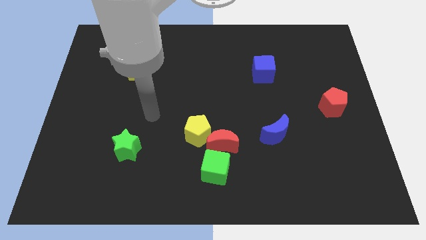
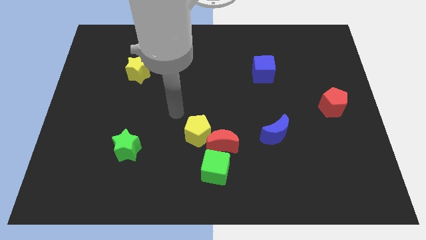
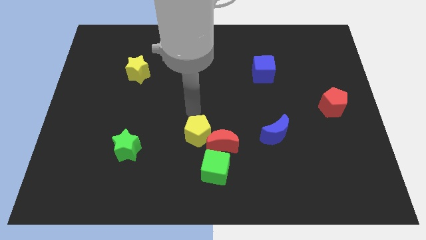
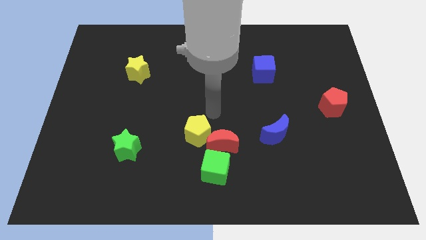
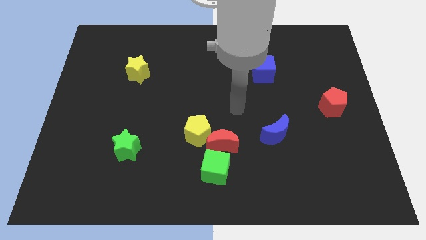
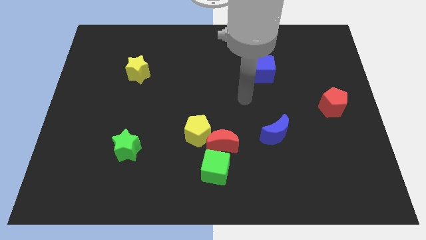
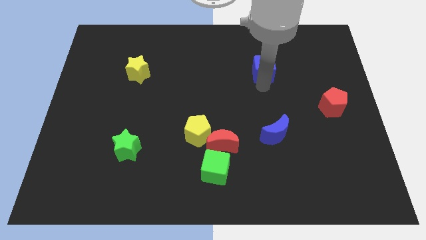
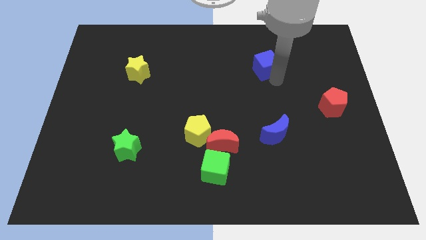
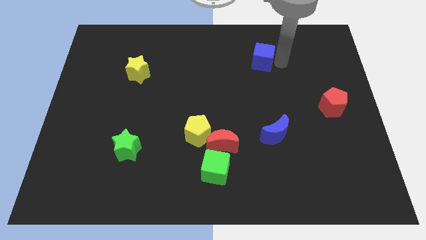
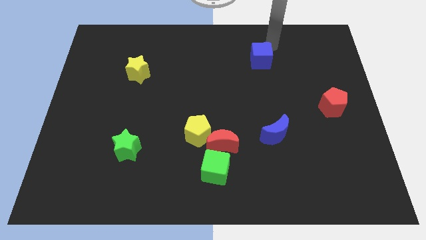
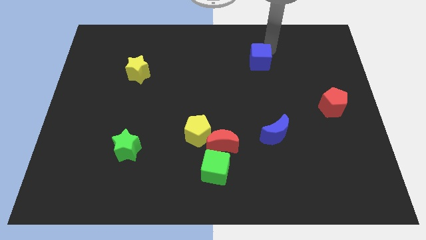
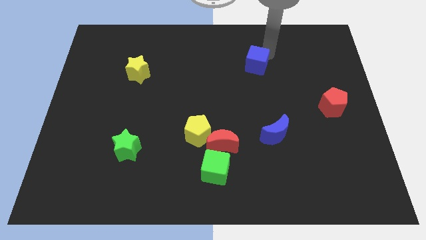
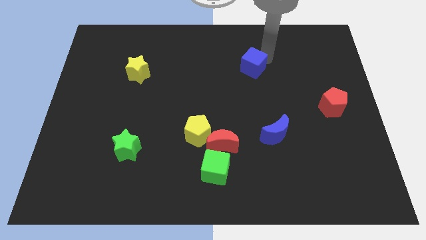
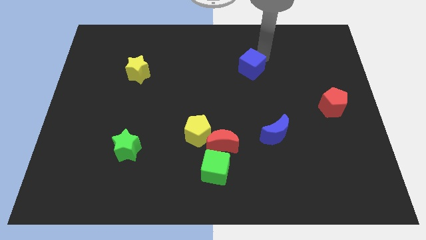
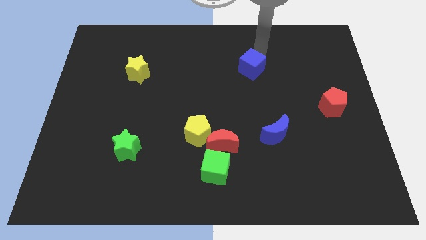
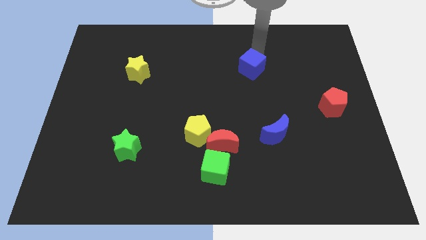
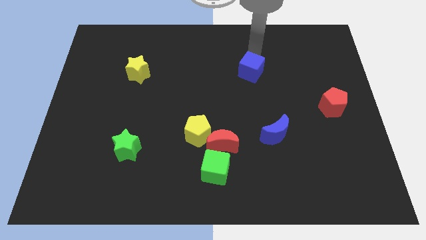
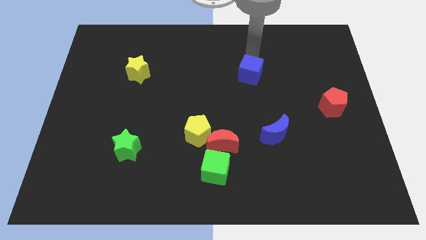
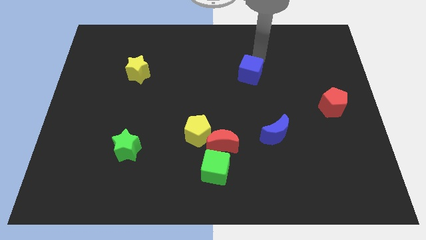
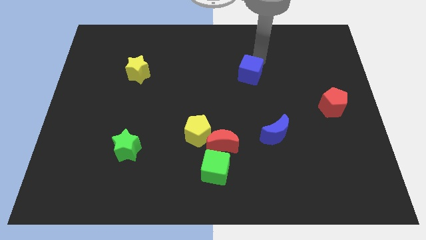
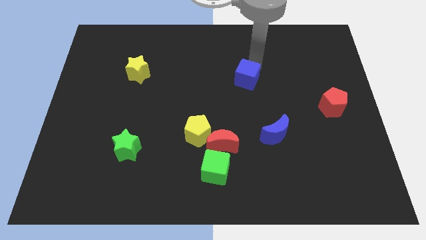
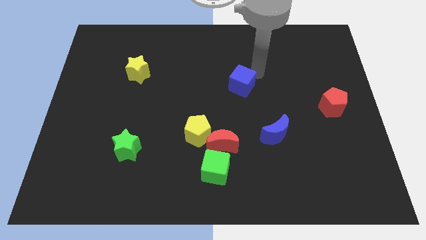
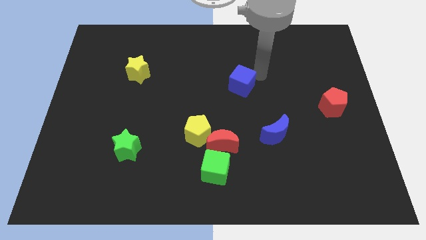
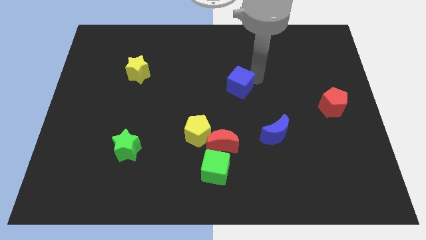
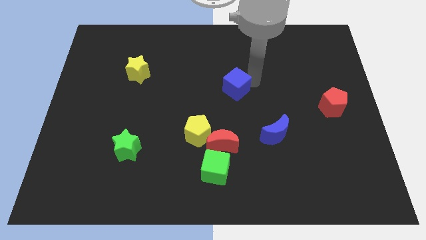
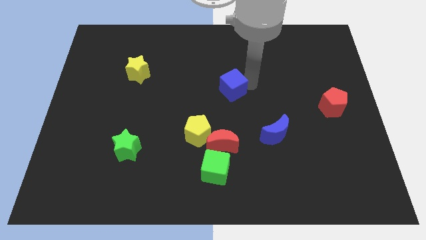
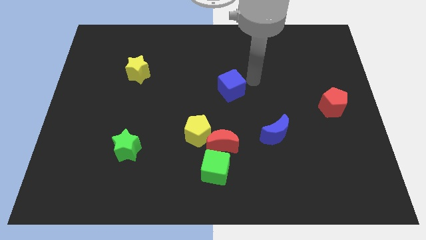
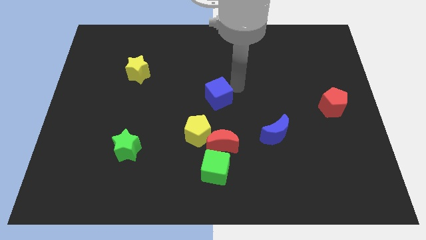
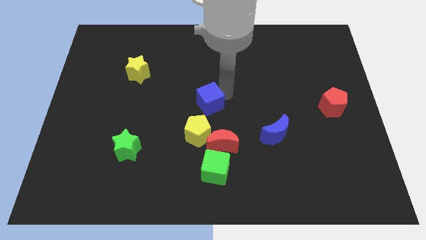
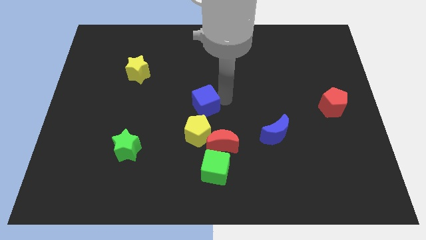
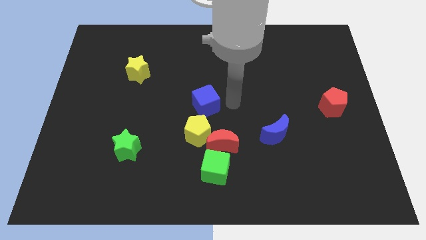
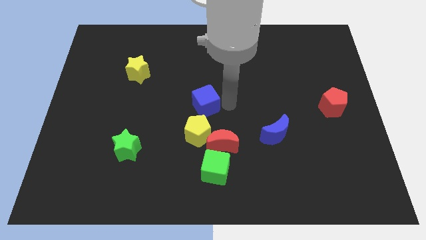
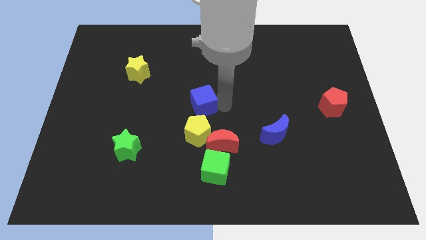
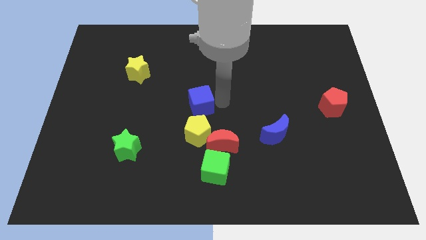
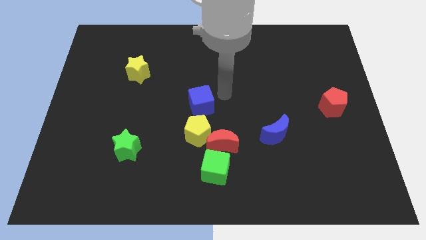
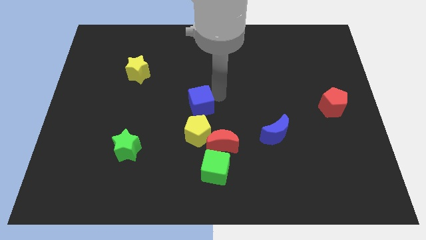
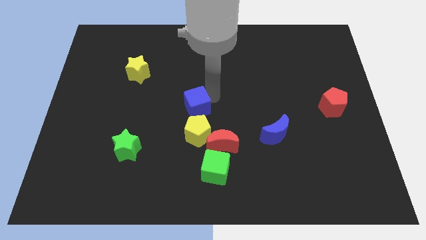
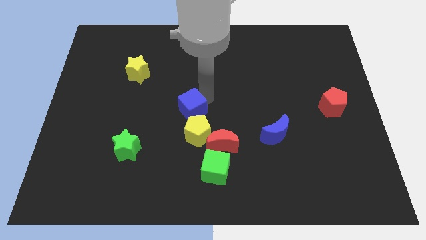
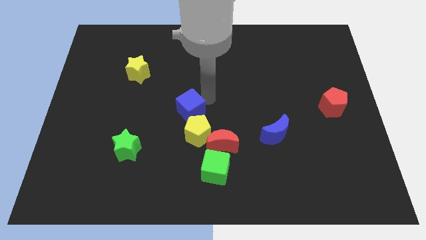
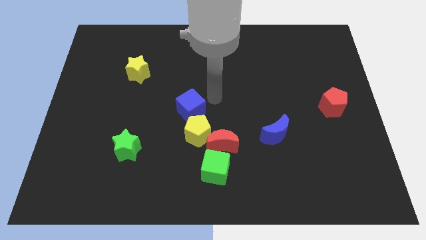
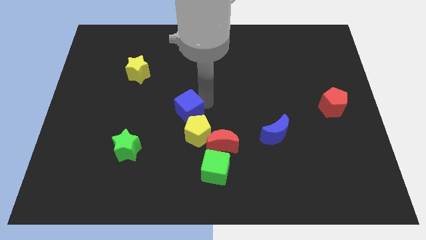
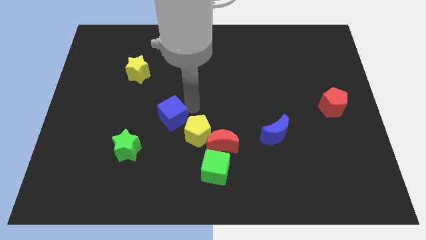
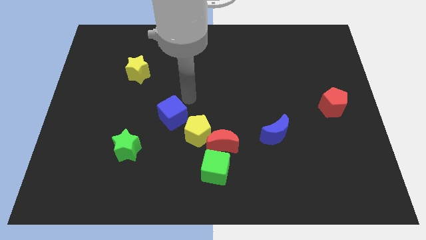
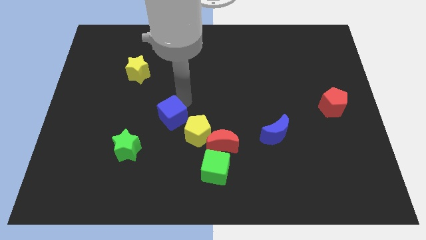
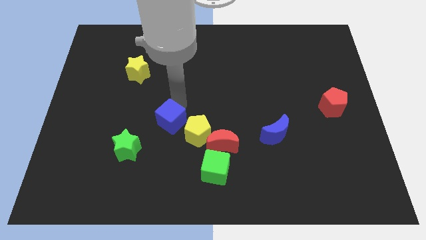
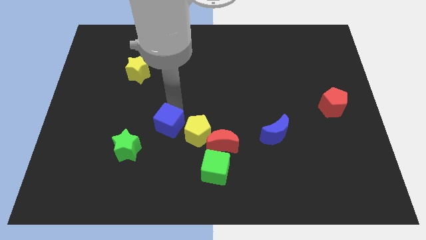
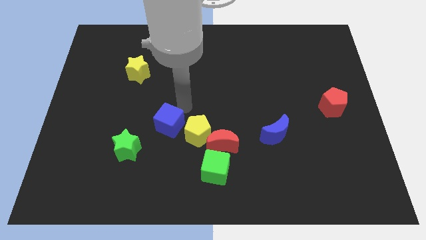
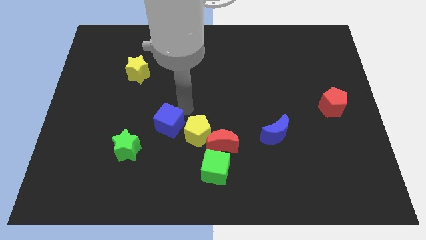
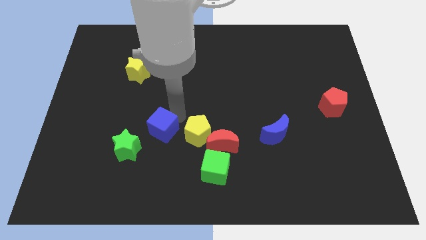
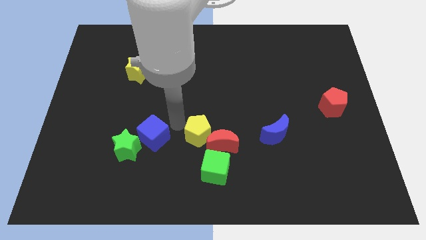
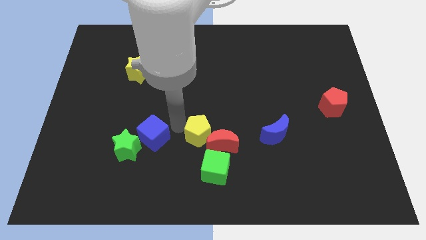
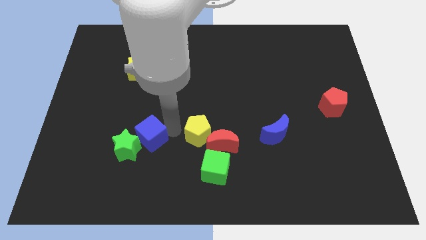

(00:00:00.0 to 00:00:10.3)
put the blue cube to the green star

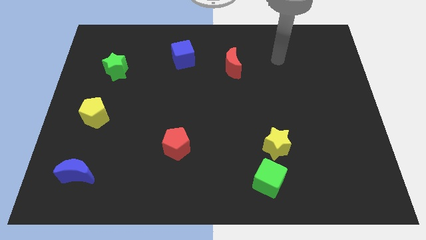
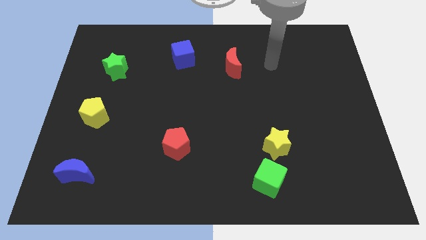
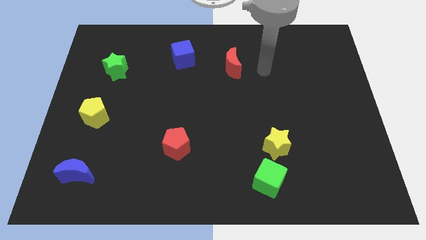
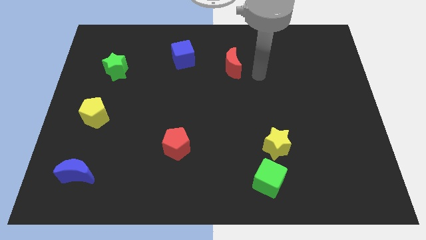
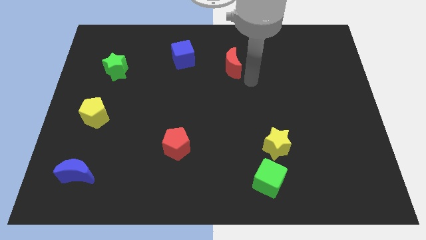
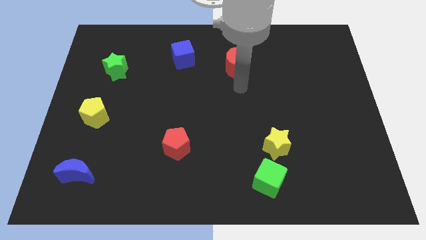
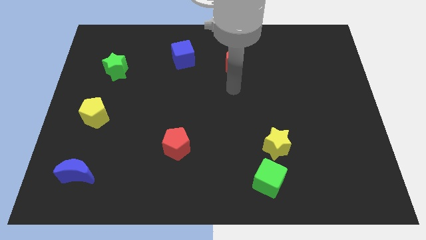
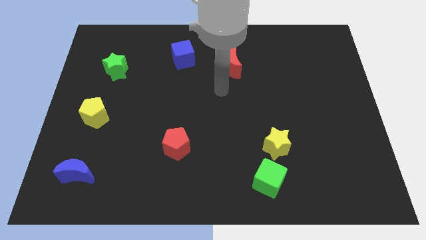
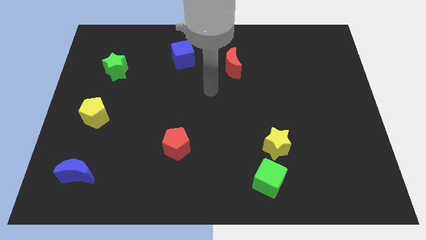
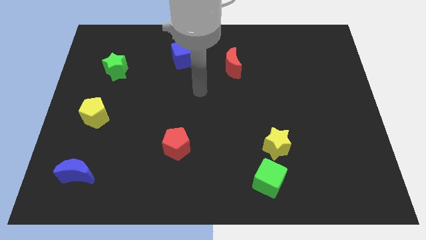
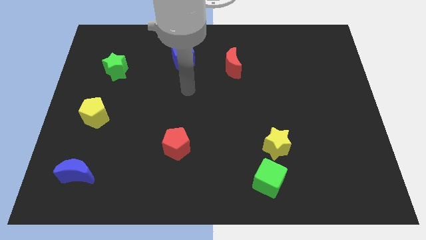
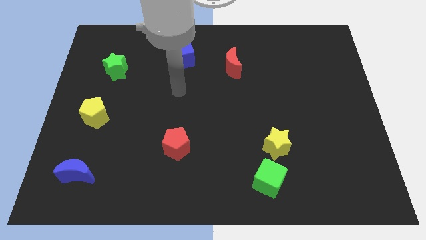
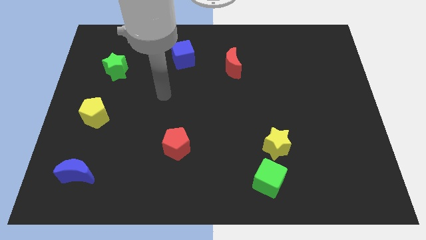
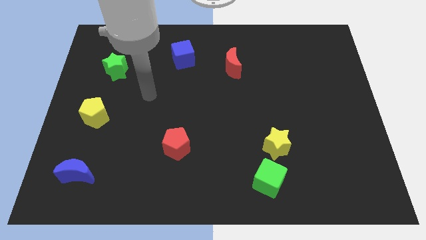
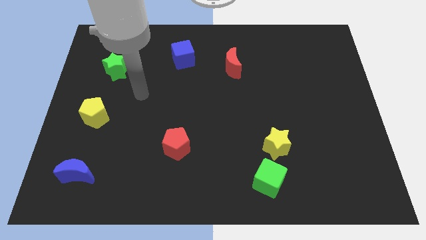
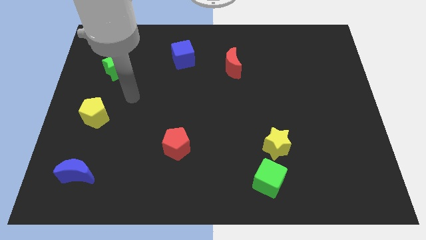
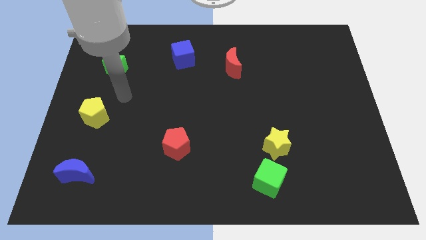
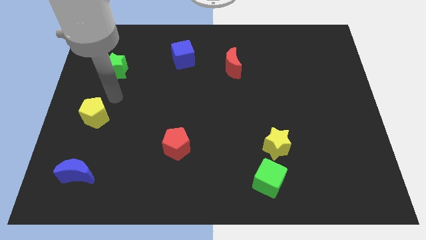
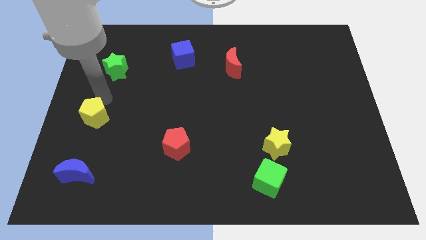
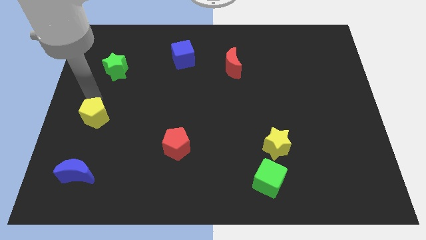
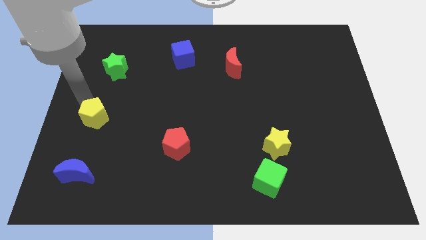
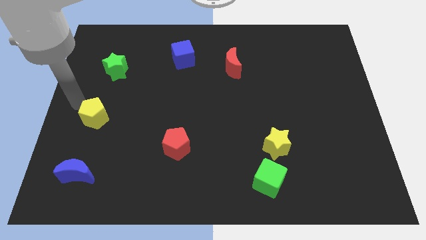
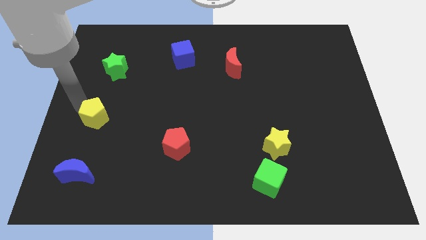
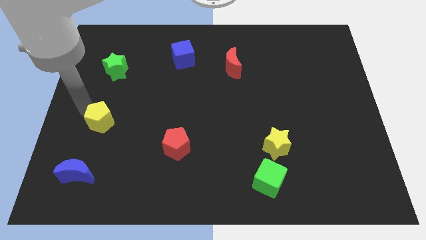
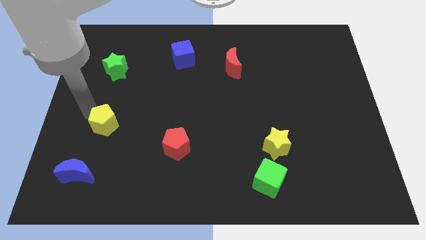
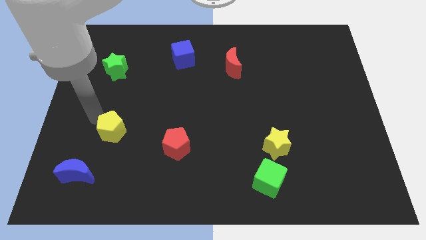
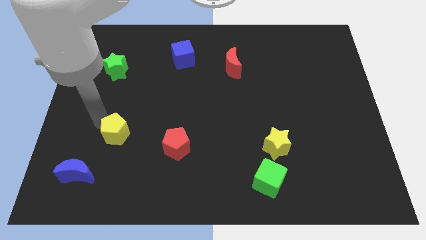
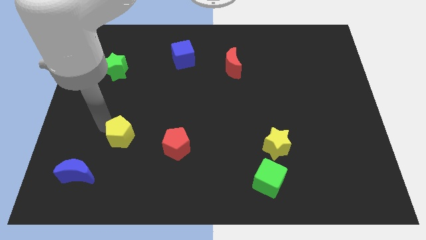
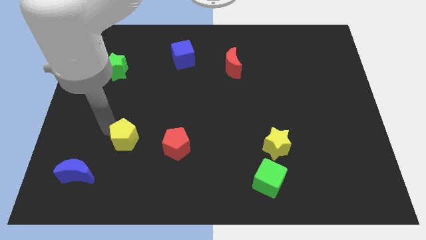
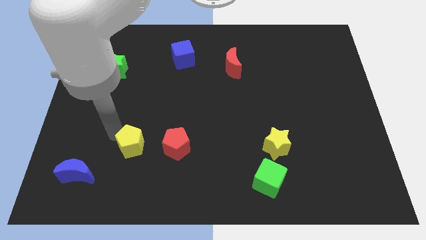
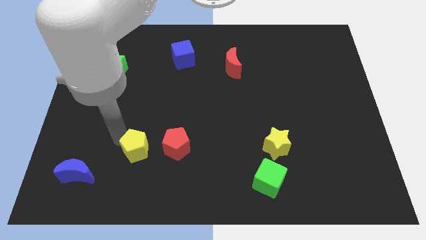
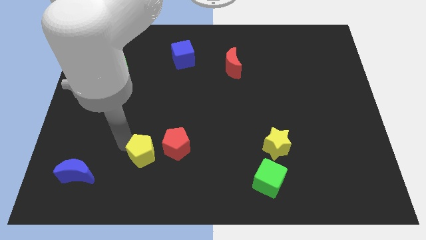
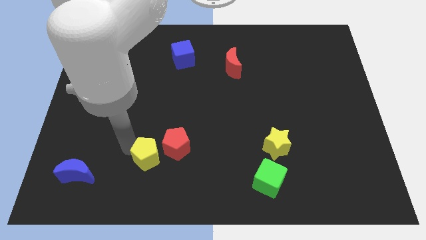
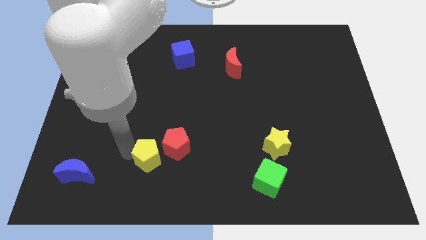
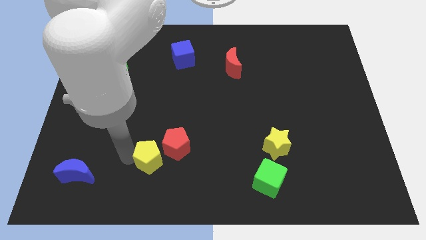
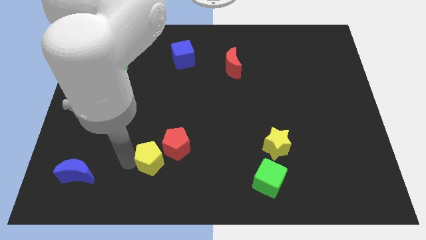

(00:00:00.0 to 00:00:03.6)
push the yellow pentagon next to the red pentagon
